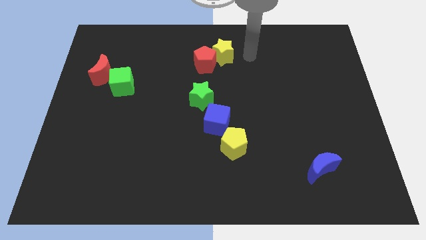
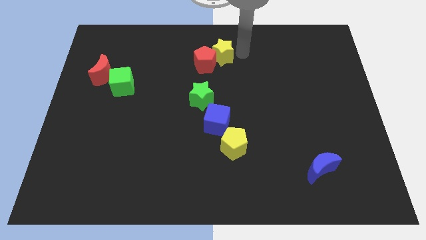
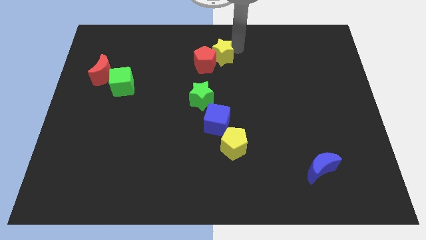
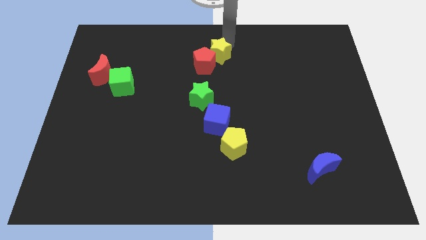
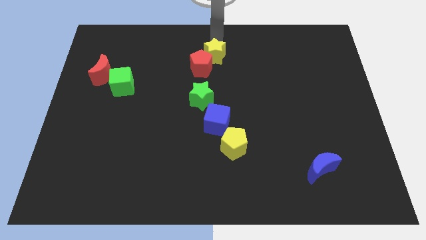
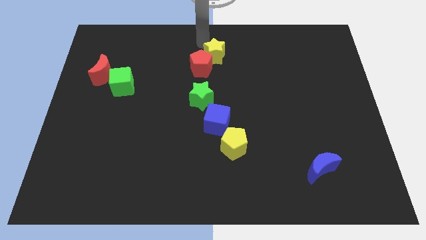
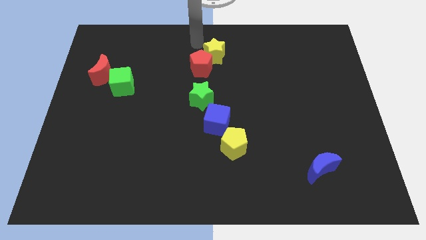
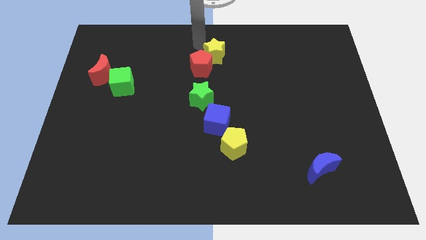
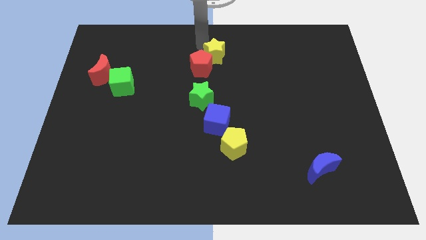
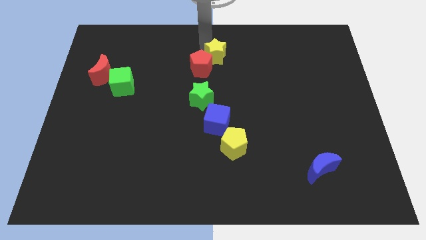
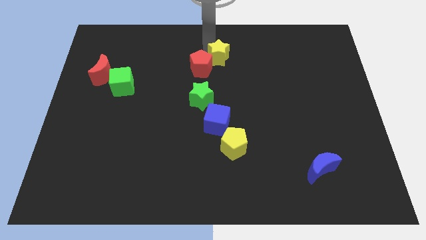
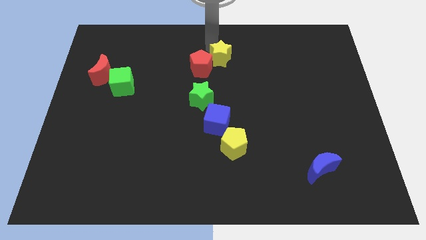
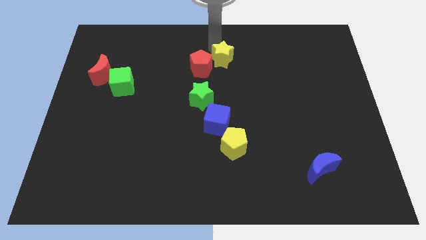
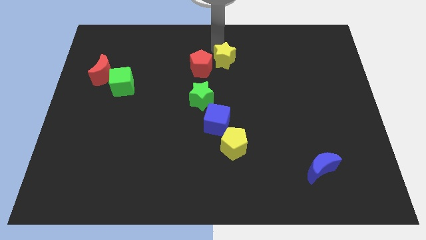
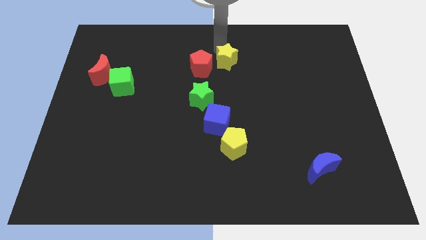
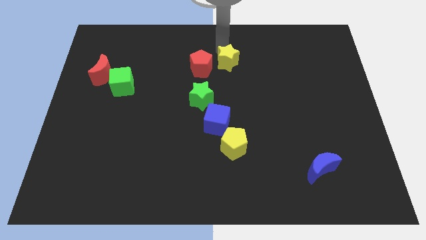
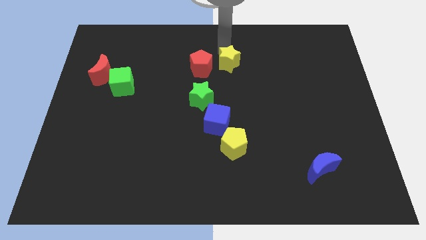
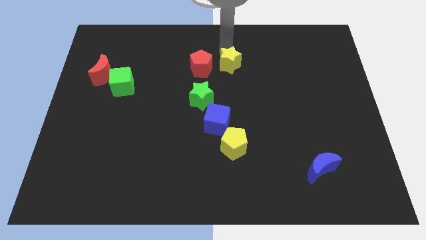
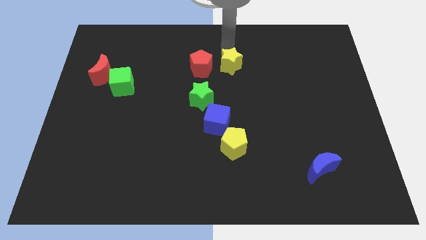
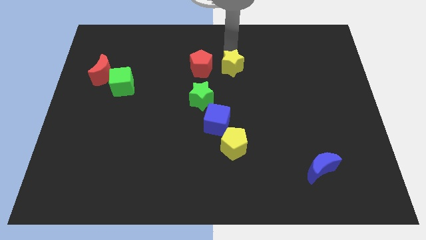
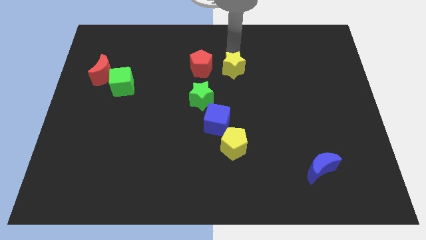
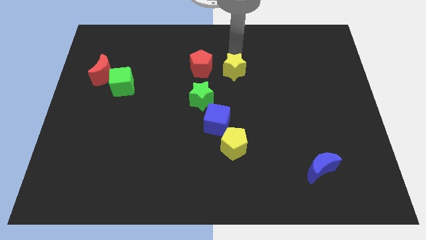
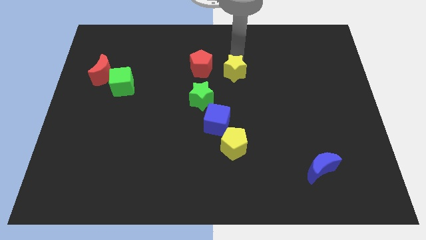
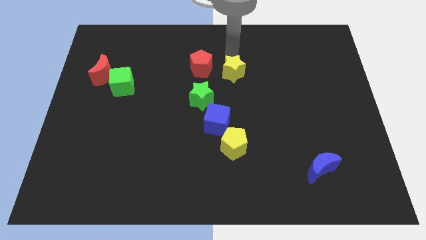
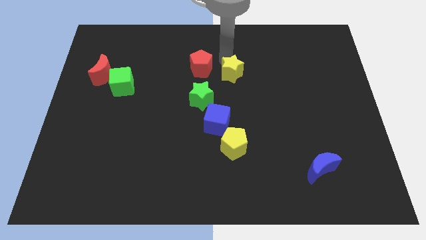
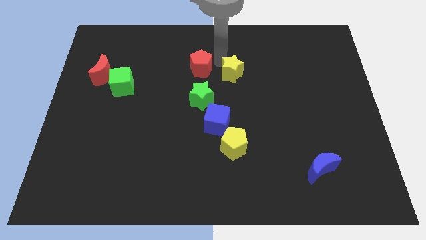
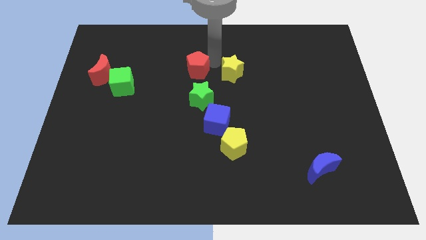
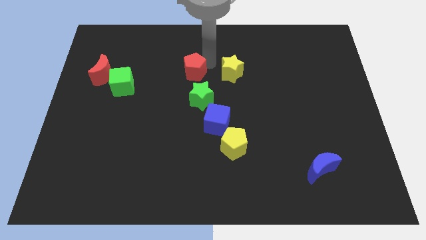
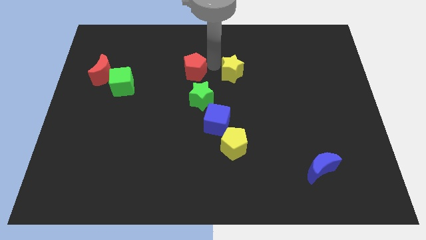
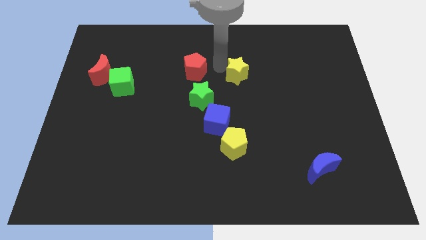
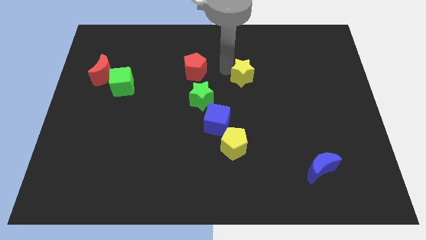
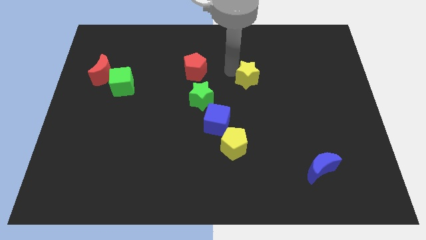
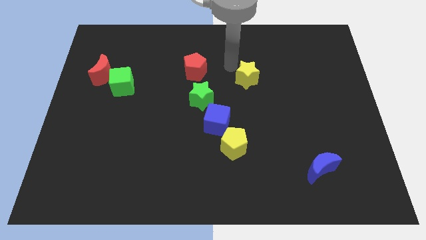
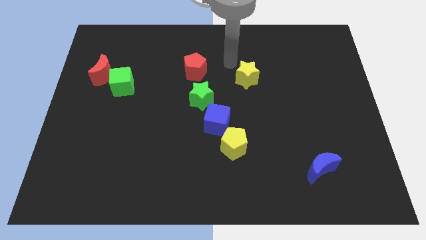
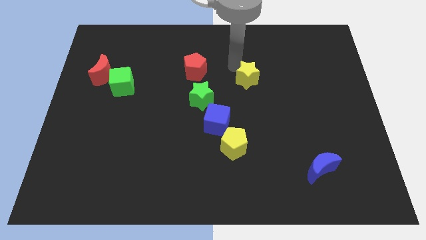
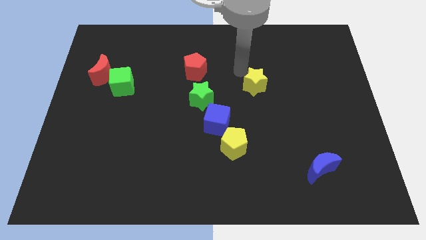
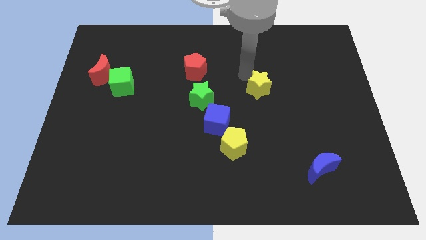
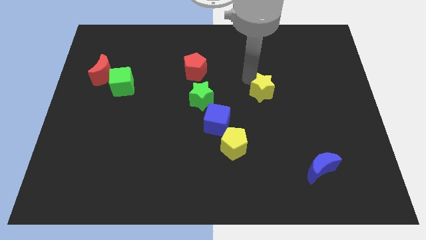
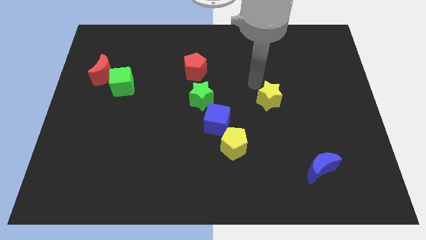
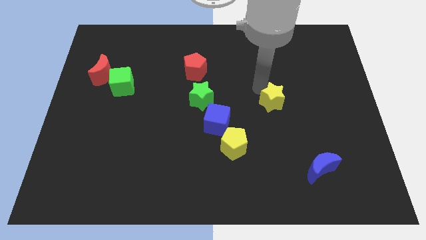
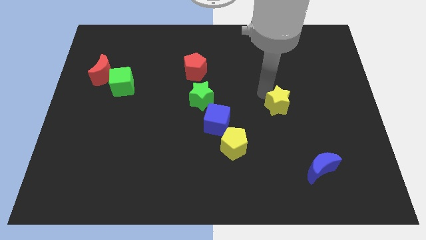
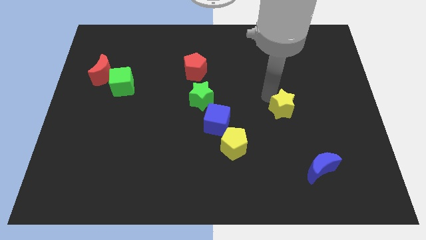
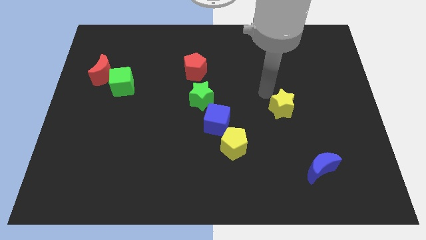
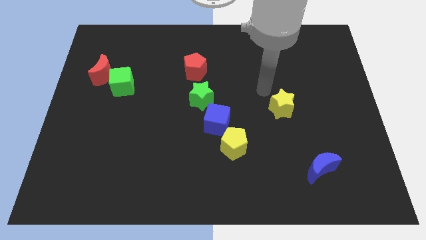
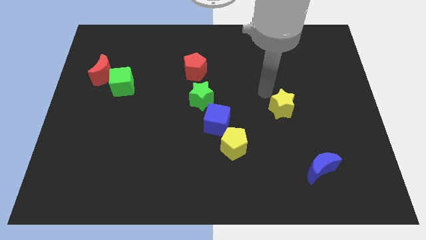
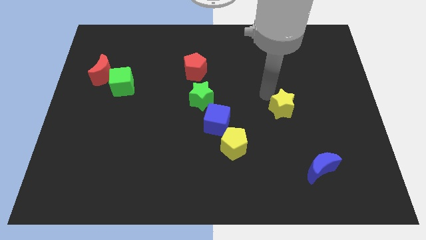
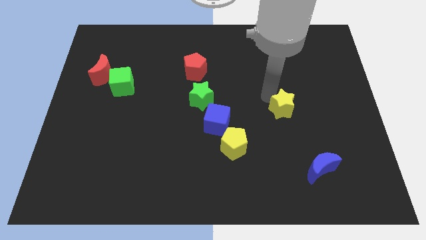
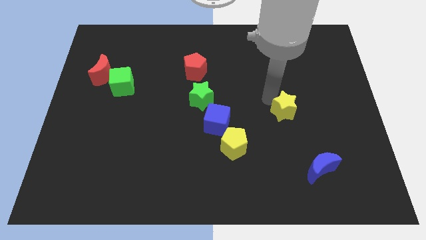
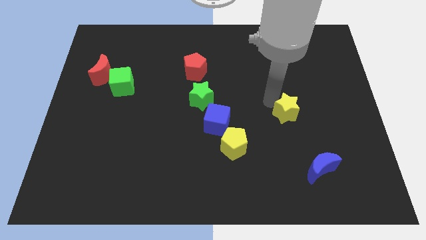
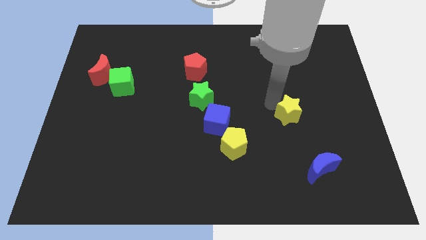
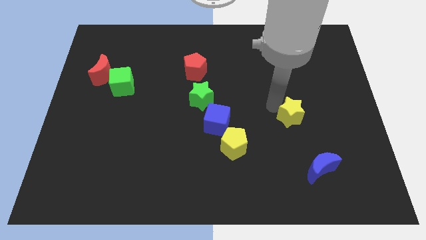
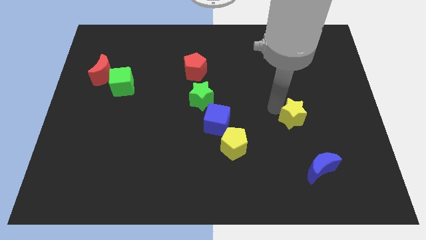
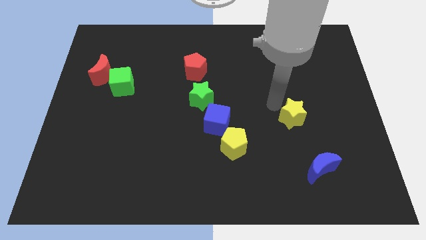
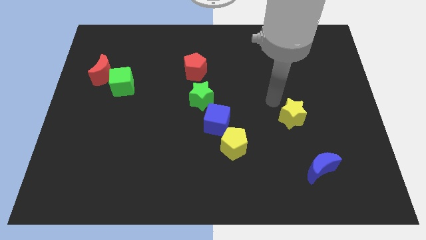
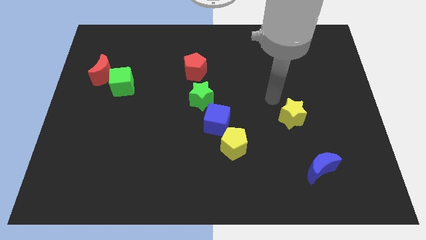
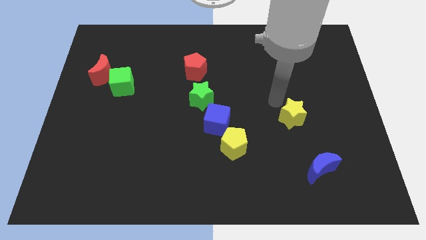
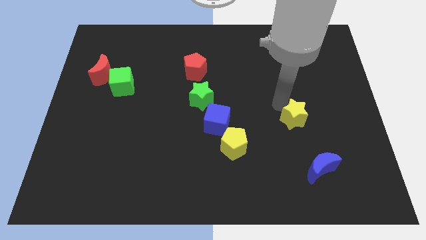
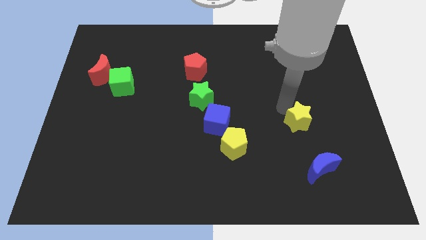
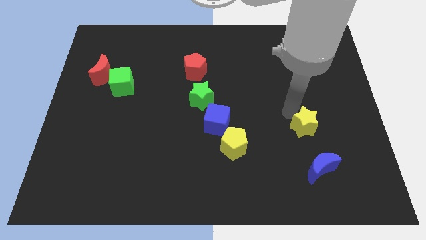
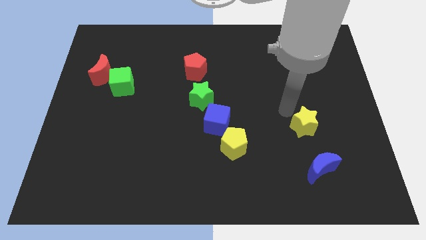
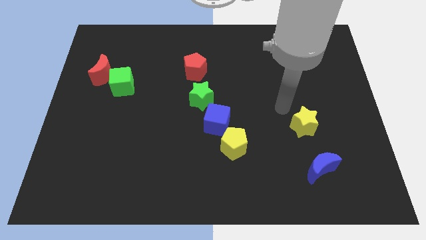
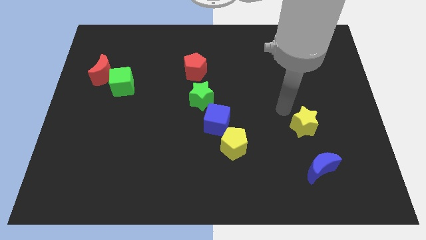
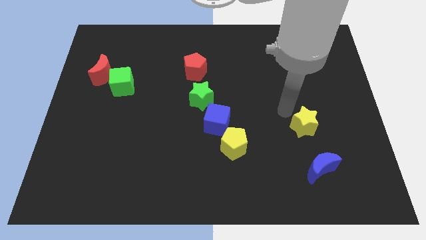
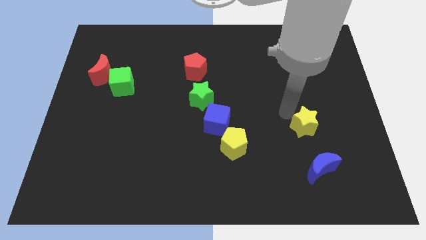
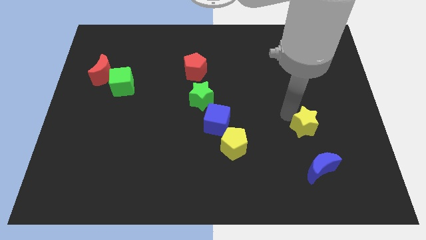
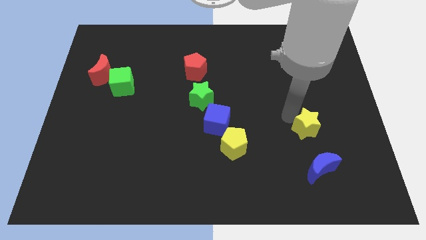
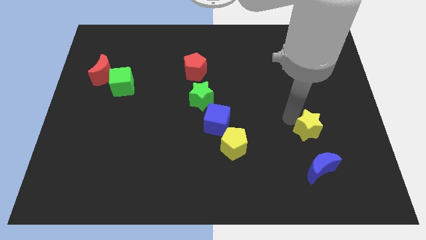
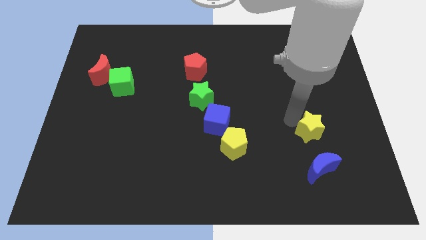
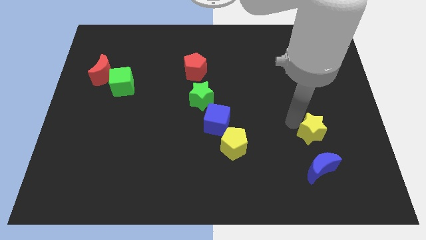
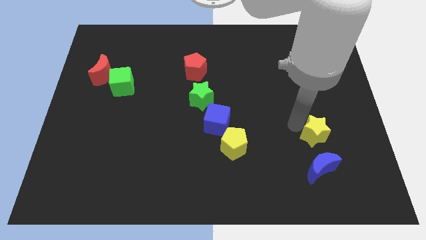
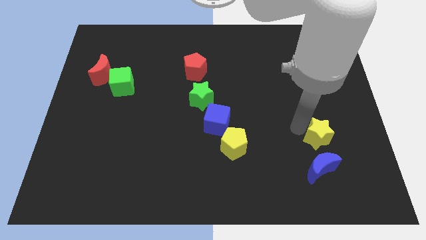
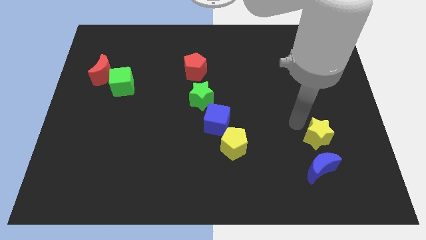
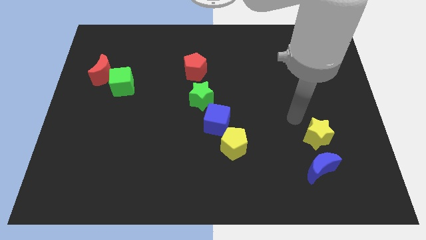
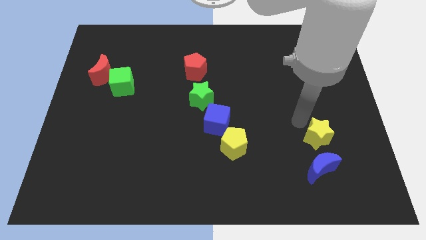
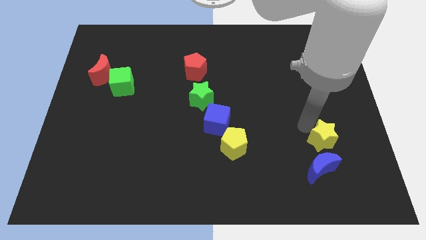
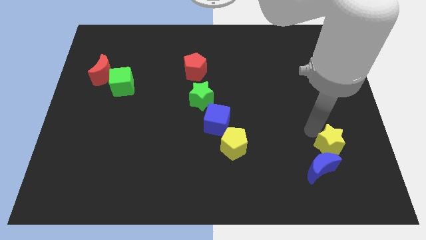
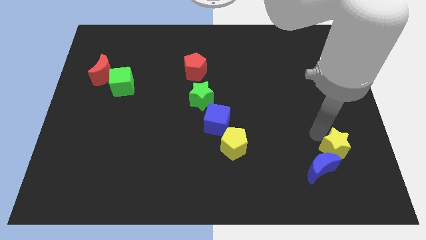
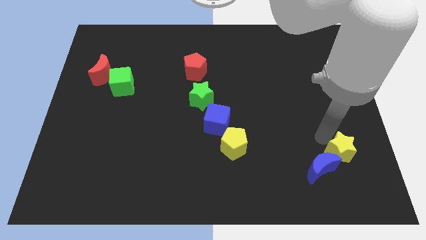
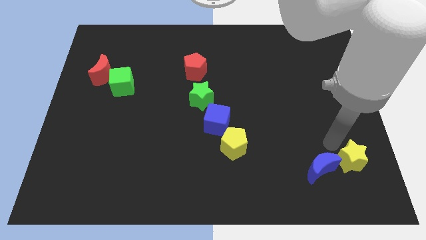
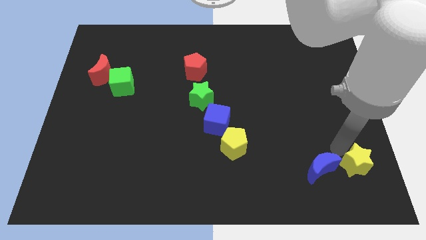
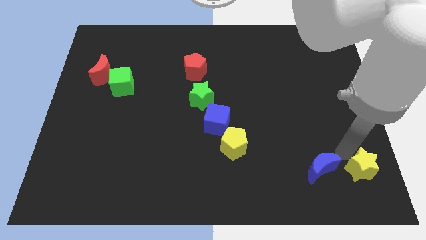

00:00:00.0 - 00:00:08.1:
push the yellow star to the bottom right corner
